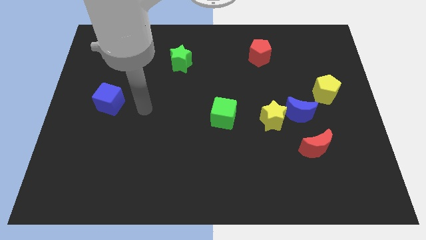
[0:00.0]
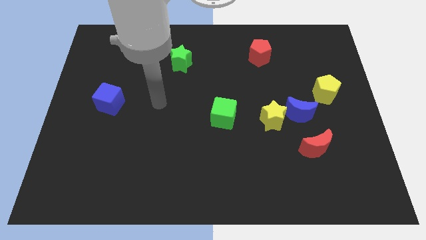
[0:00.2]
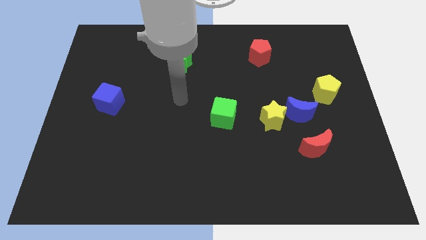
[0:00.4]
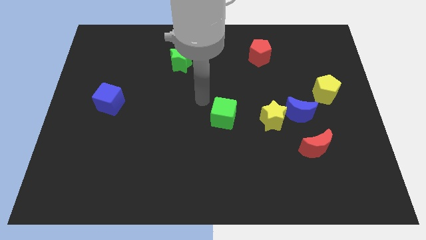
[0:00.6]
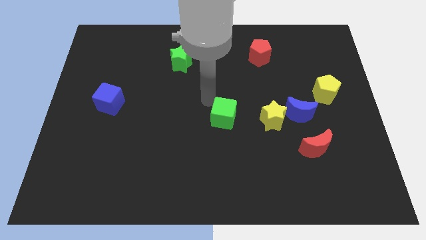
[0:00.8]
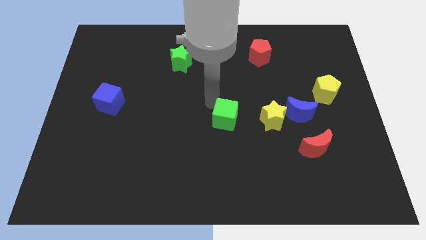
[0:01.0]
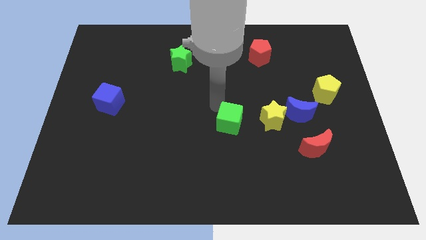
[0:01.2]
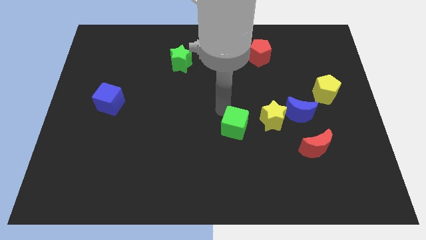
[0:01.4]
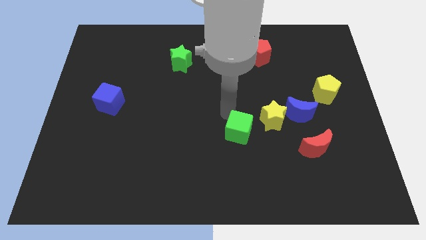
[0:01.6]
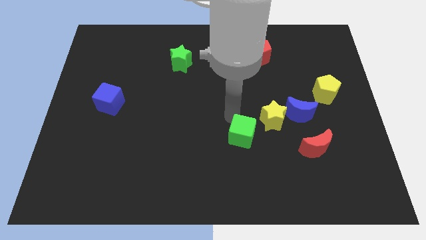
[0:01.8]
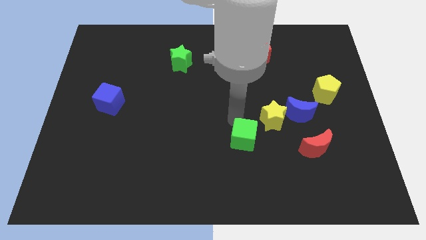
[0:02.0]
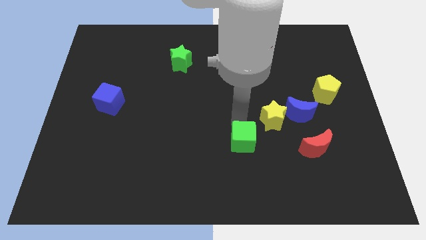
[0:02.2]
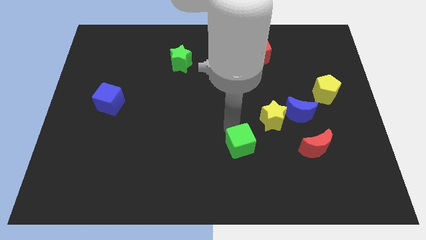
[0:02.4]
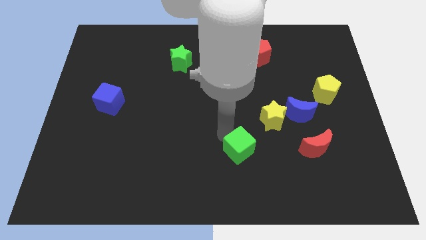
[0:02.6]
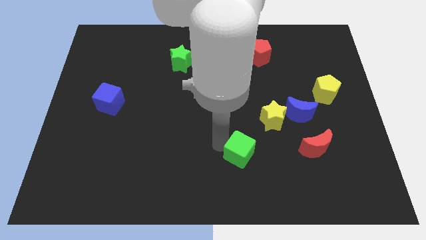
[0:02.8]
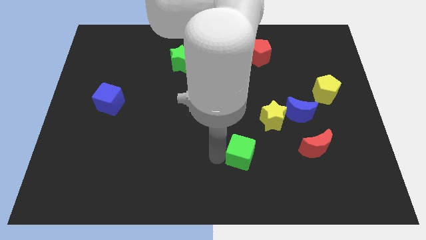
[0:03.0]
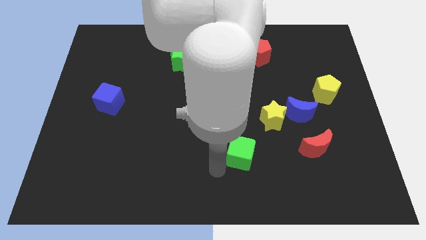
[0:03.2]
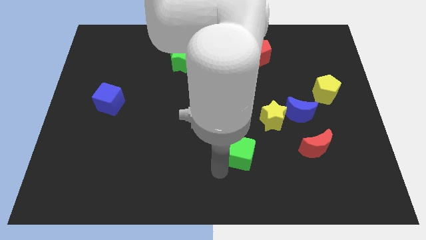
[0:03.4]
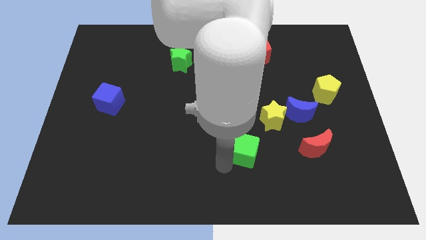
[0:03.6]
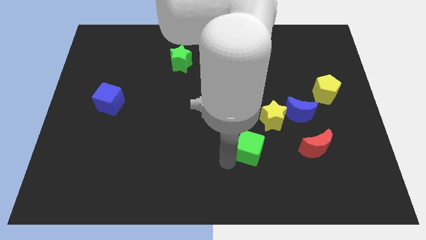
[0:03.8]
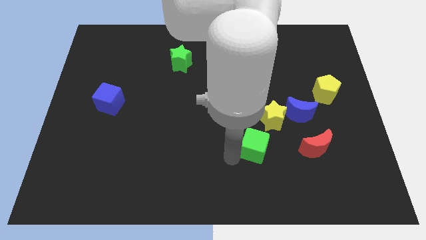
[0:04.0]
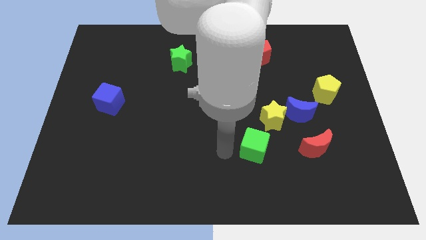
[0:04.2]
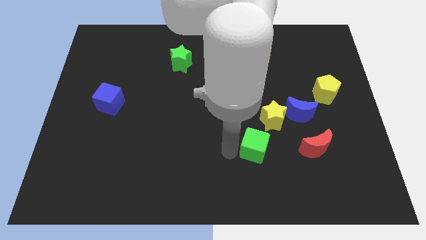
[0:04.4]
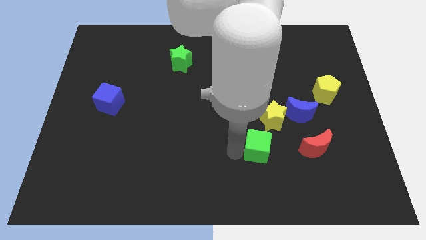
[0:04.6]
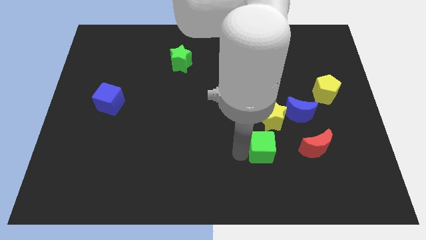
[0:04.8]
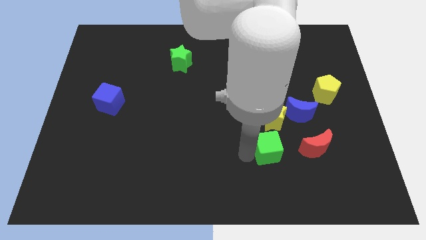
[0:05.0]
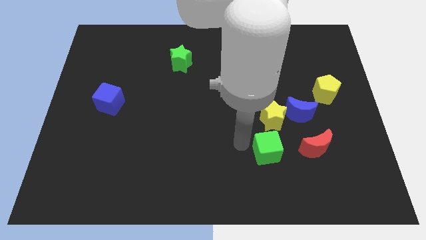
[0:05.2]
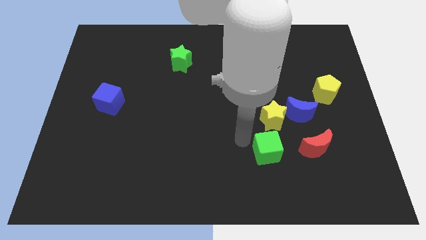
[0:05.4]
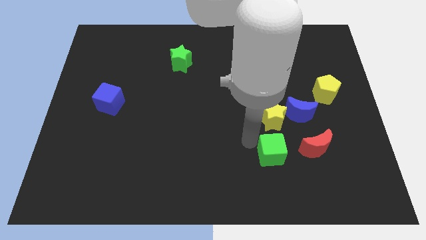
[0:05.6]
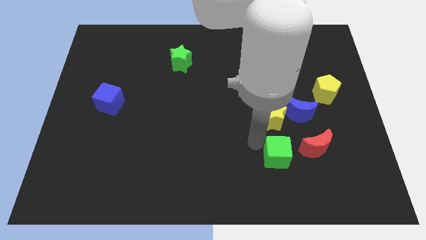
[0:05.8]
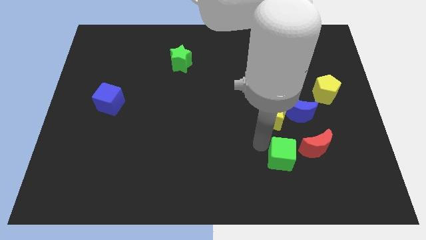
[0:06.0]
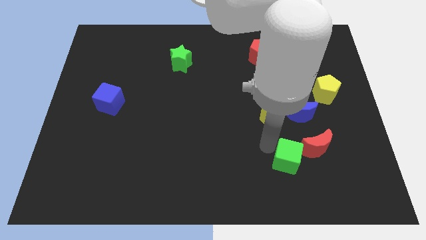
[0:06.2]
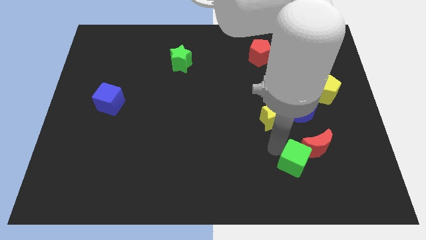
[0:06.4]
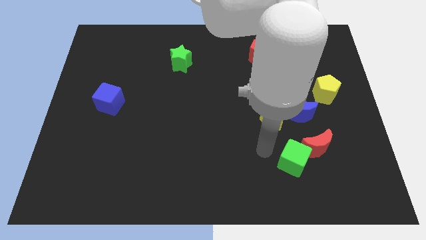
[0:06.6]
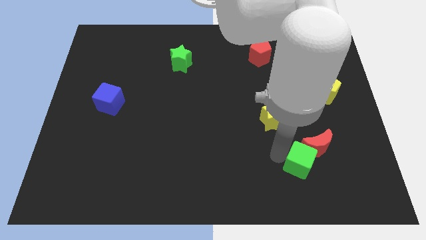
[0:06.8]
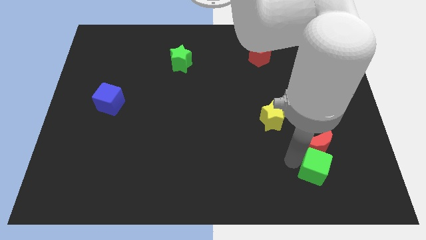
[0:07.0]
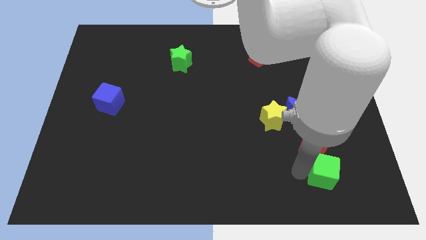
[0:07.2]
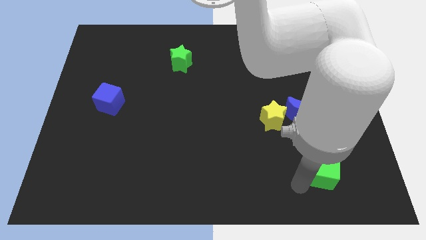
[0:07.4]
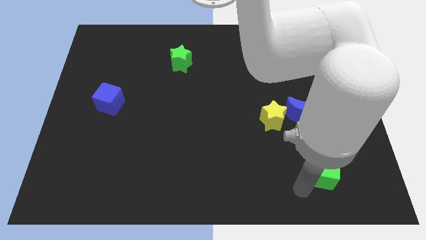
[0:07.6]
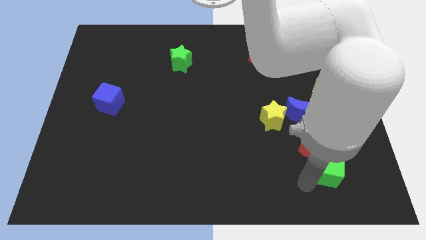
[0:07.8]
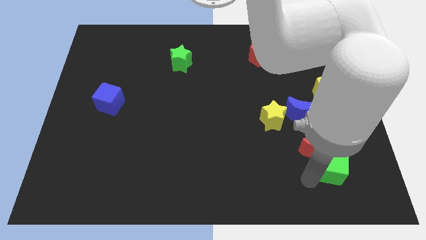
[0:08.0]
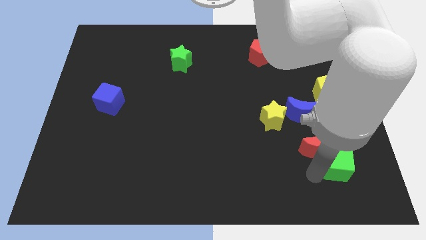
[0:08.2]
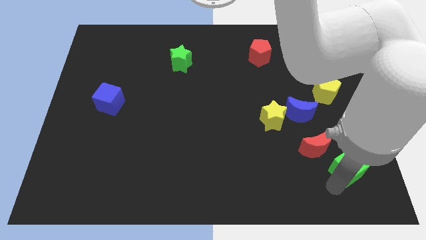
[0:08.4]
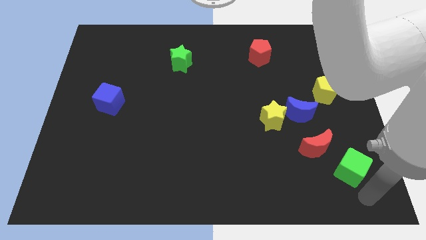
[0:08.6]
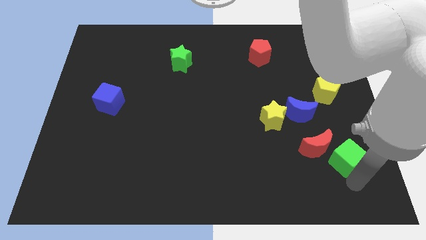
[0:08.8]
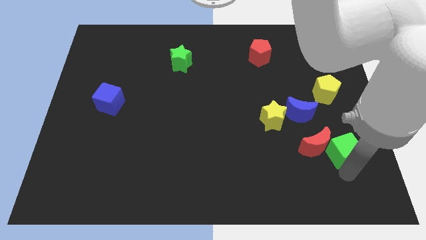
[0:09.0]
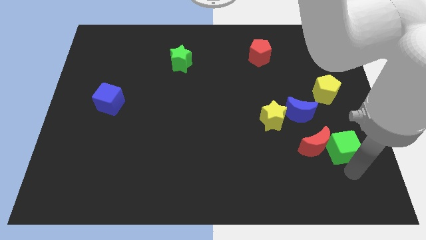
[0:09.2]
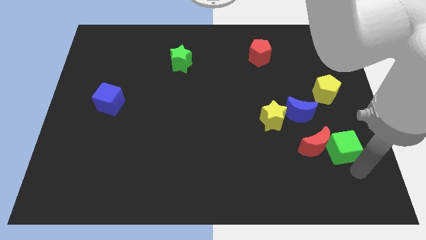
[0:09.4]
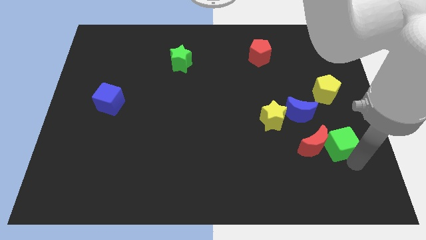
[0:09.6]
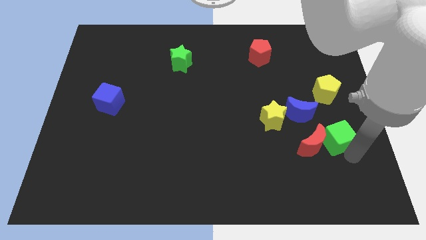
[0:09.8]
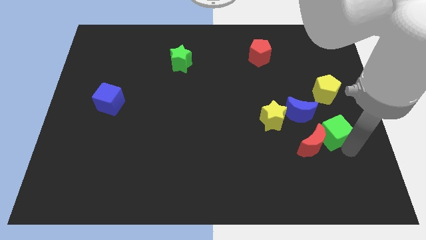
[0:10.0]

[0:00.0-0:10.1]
slide the green cube to the right side of the yellow star
